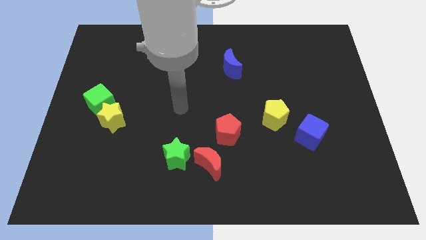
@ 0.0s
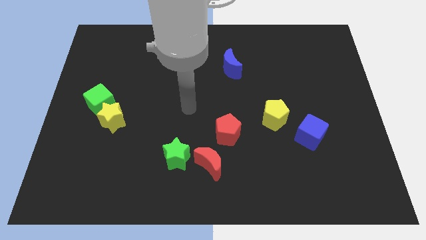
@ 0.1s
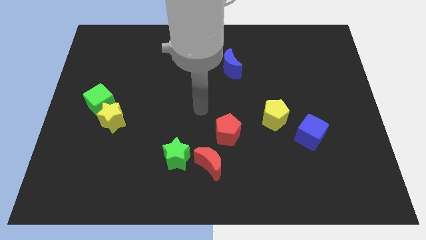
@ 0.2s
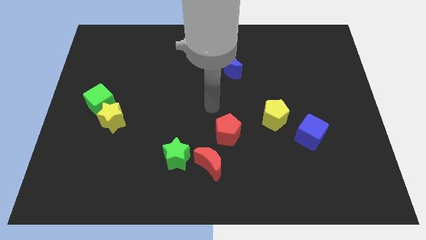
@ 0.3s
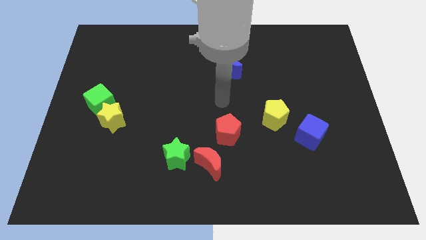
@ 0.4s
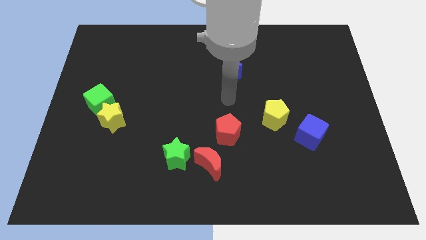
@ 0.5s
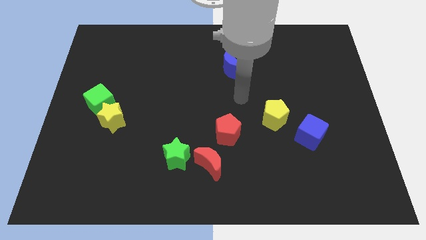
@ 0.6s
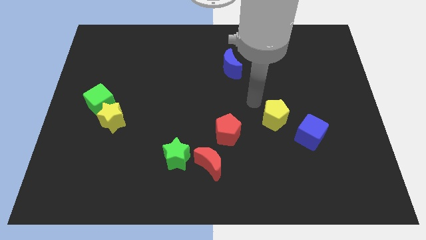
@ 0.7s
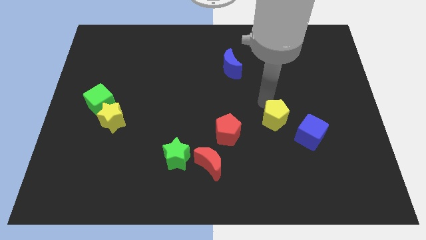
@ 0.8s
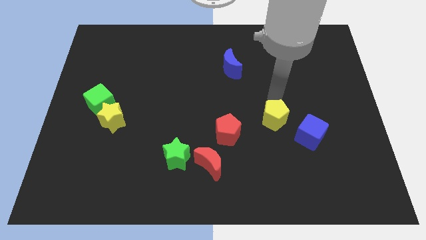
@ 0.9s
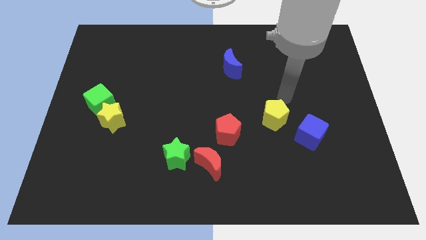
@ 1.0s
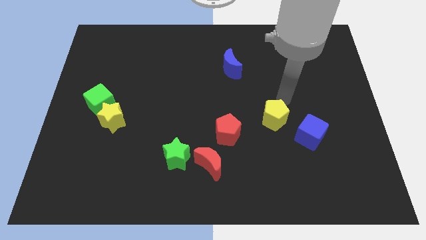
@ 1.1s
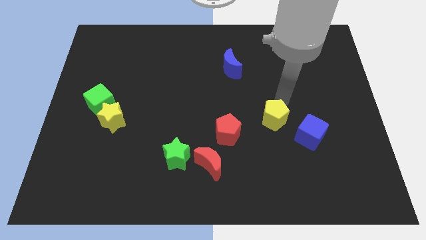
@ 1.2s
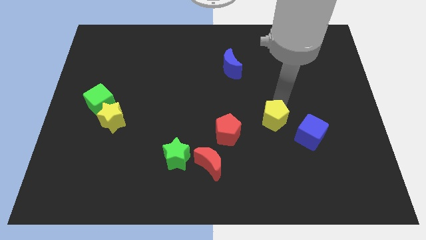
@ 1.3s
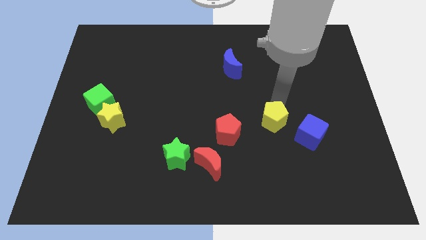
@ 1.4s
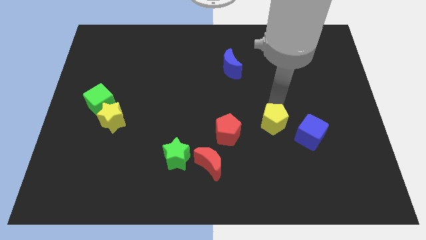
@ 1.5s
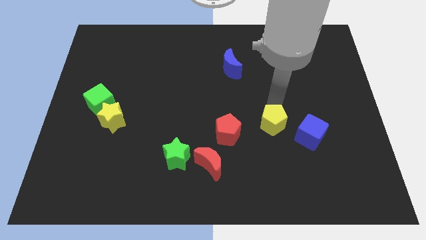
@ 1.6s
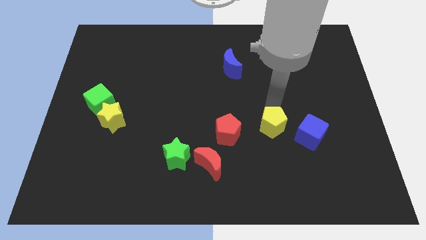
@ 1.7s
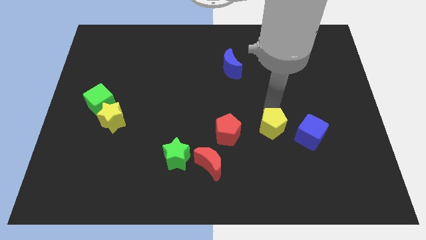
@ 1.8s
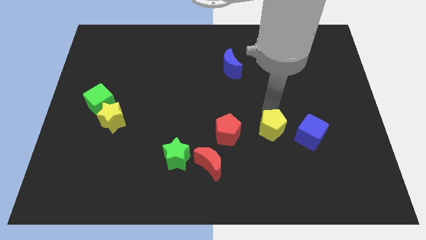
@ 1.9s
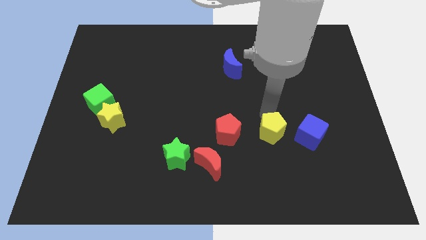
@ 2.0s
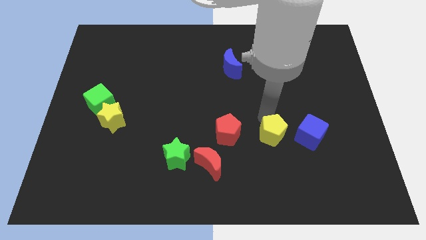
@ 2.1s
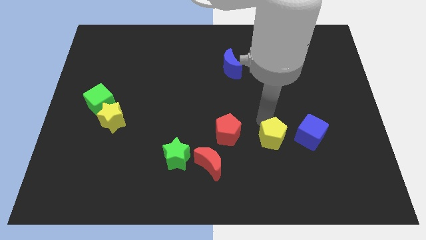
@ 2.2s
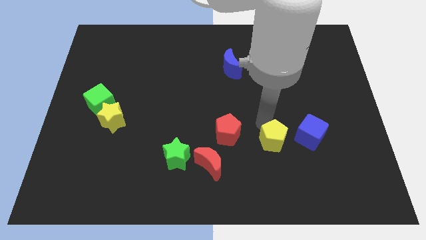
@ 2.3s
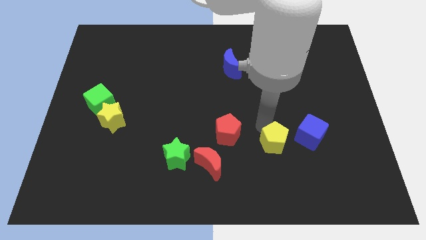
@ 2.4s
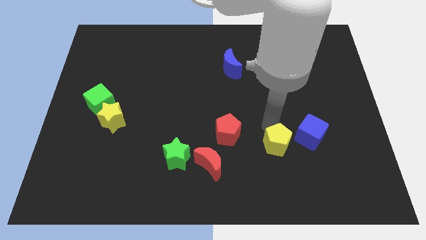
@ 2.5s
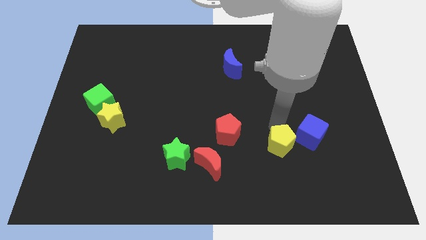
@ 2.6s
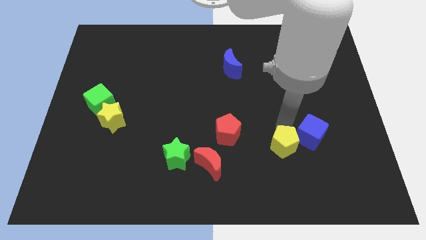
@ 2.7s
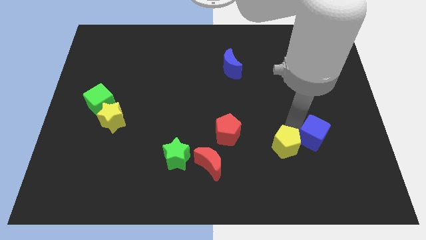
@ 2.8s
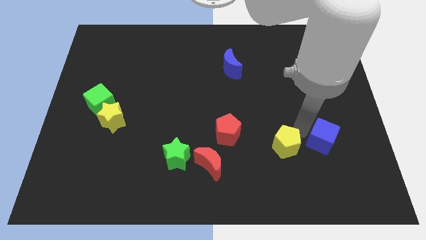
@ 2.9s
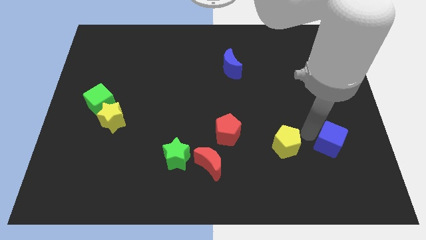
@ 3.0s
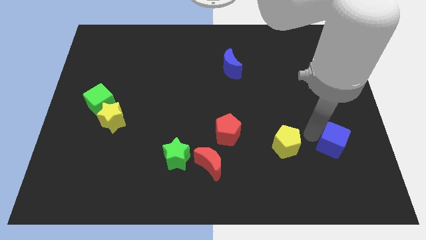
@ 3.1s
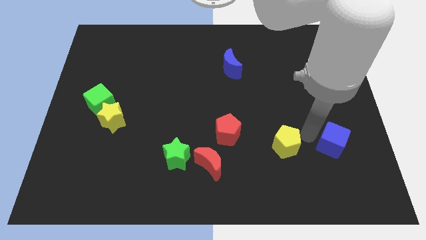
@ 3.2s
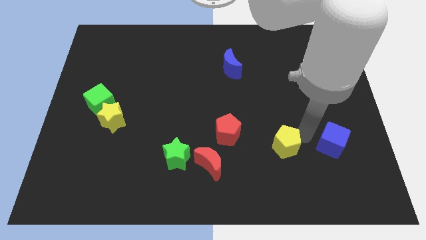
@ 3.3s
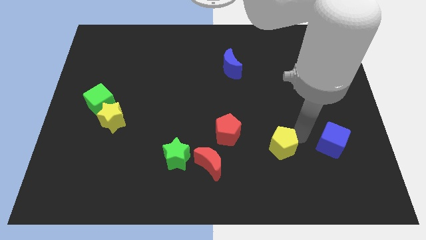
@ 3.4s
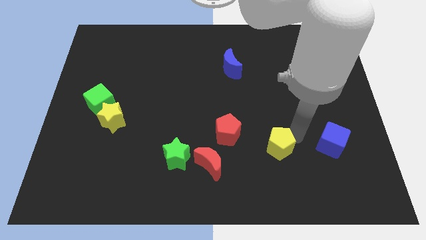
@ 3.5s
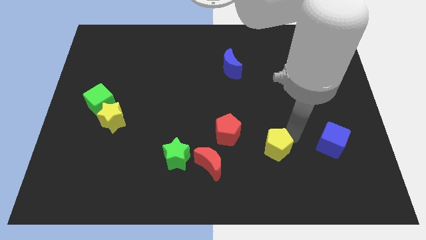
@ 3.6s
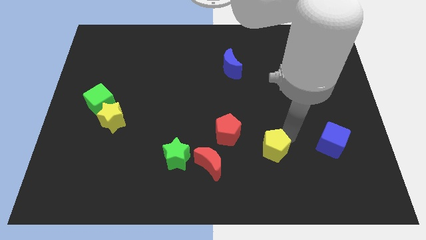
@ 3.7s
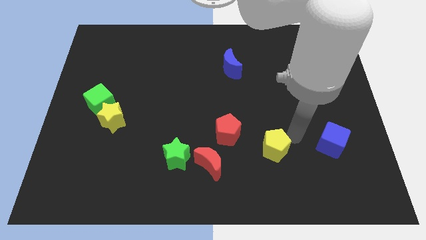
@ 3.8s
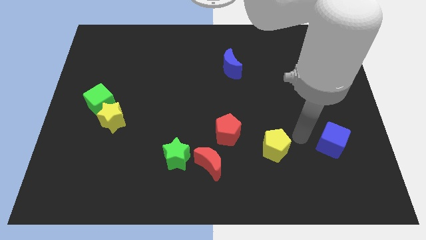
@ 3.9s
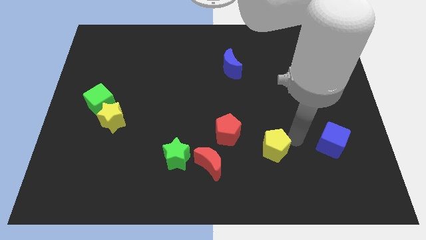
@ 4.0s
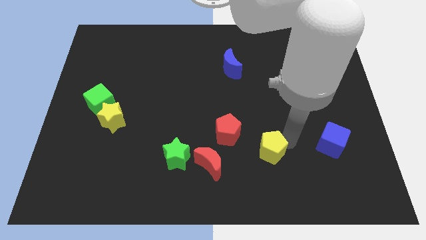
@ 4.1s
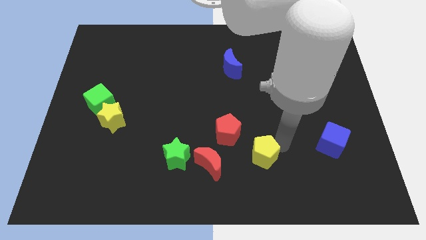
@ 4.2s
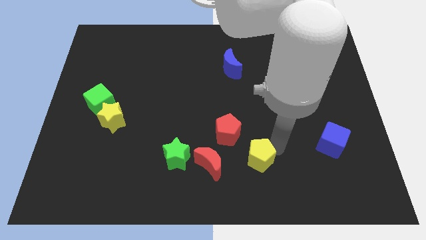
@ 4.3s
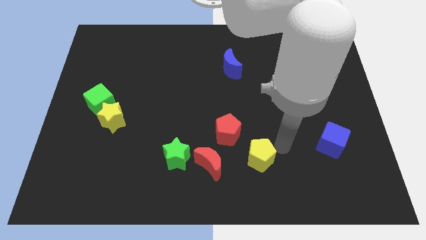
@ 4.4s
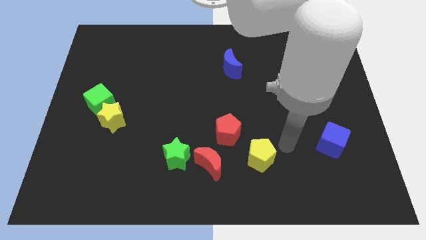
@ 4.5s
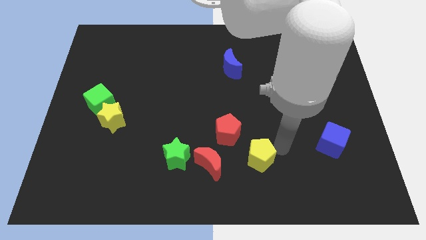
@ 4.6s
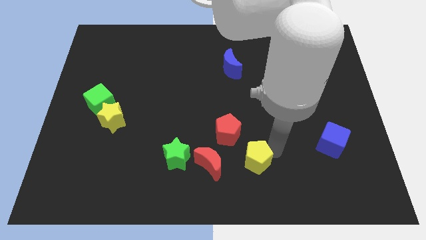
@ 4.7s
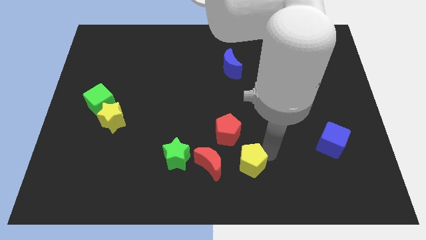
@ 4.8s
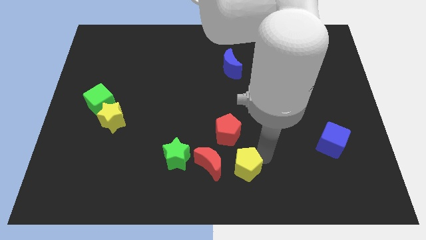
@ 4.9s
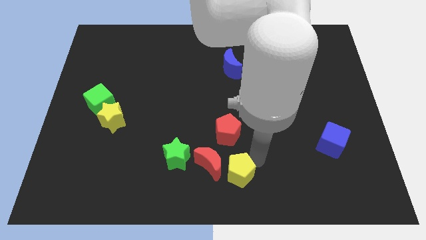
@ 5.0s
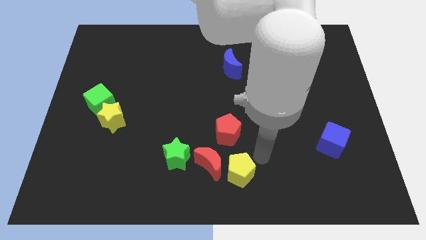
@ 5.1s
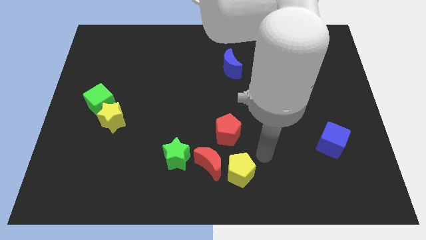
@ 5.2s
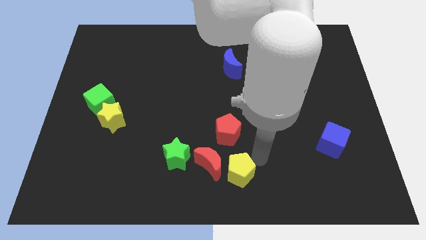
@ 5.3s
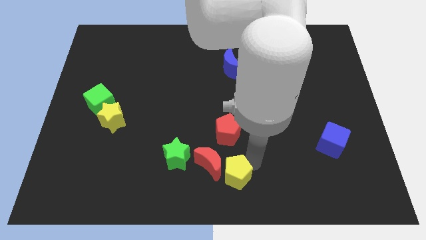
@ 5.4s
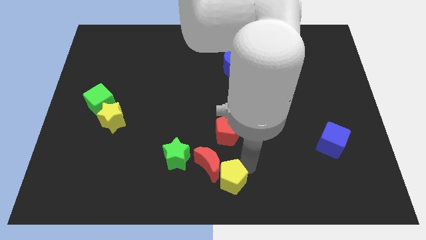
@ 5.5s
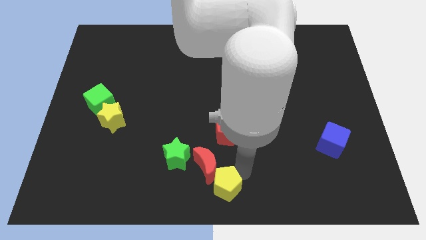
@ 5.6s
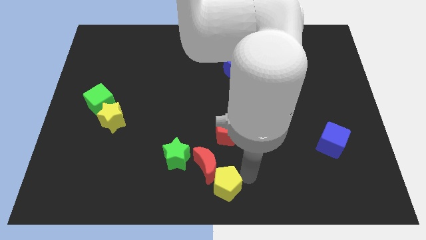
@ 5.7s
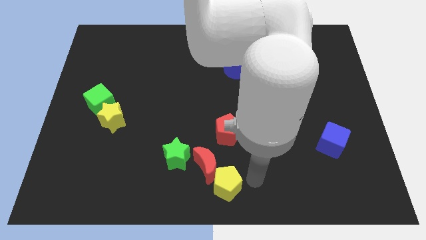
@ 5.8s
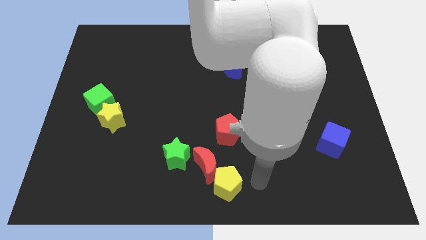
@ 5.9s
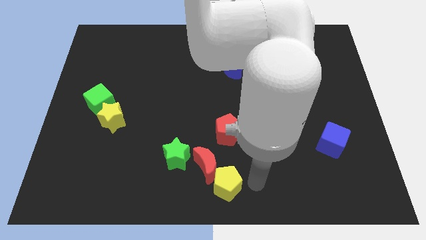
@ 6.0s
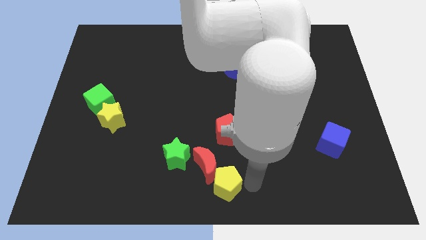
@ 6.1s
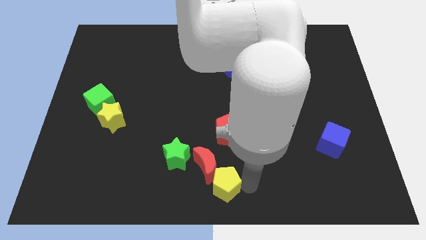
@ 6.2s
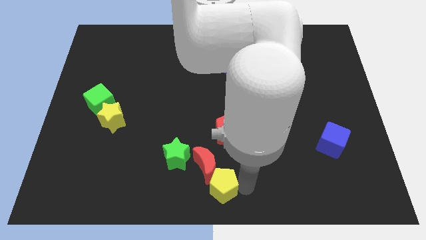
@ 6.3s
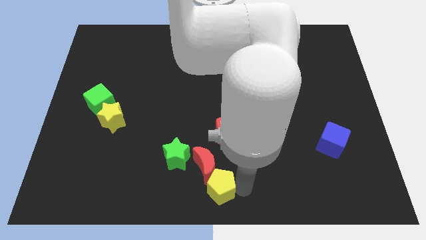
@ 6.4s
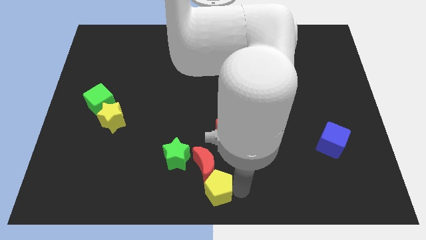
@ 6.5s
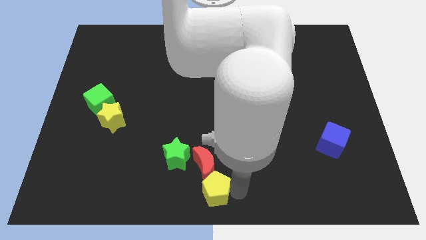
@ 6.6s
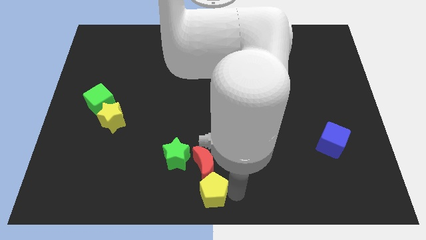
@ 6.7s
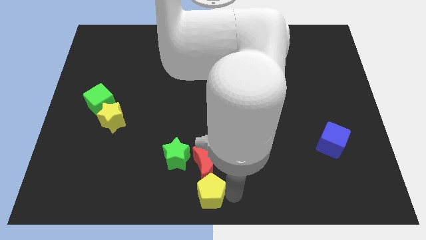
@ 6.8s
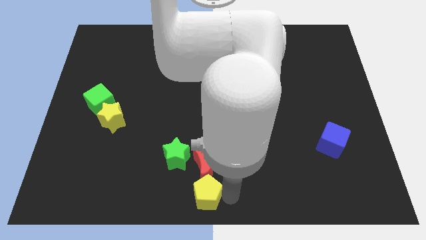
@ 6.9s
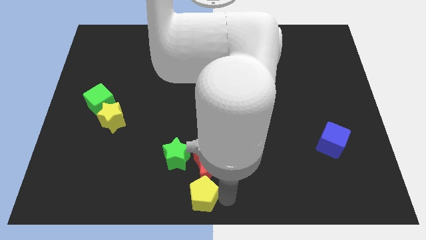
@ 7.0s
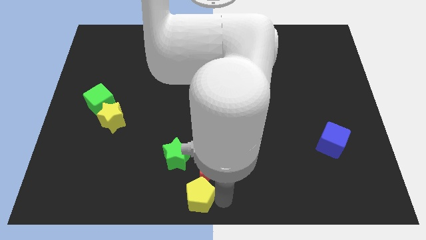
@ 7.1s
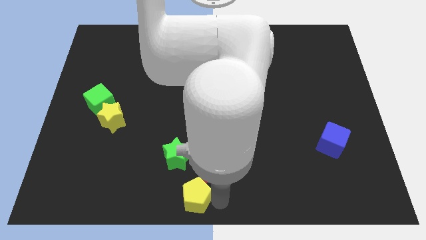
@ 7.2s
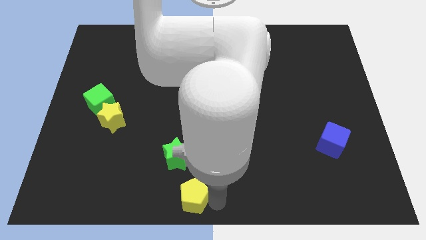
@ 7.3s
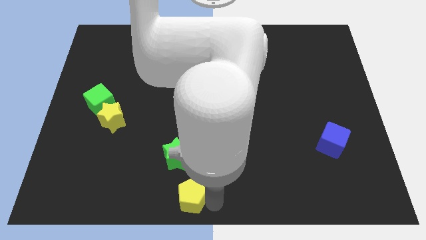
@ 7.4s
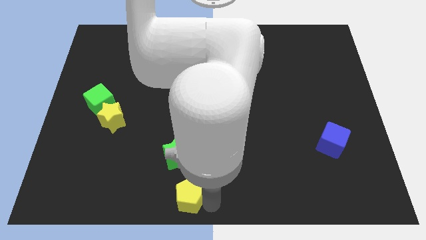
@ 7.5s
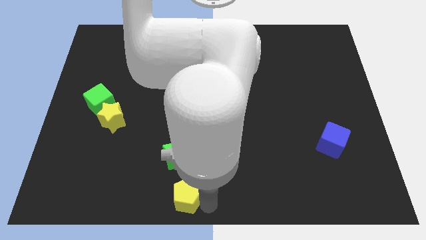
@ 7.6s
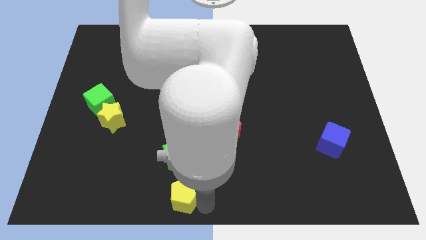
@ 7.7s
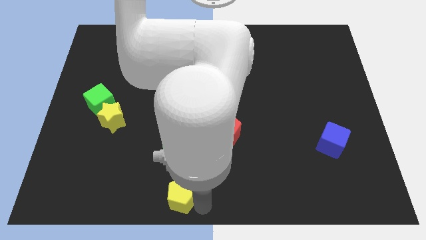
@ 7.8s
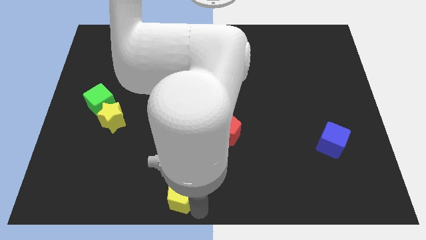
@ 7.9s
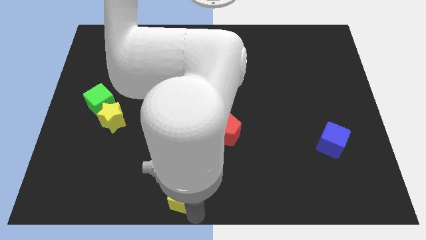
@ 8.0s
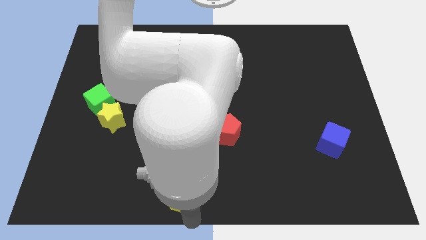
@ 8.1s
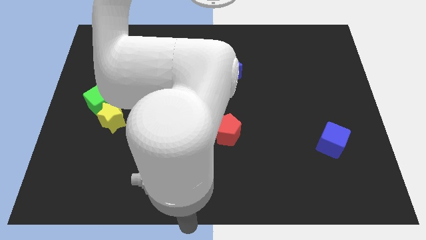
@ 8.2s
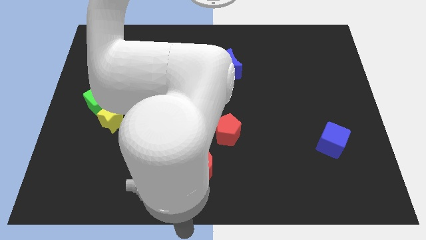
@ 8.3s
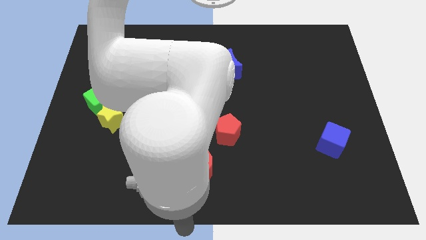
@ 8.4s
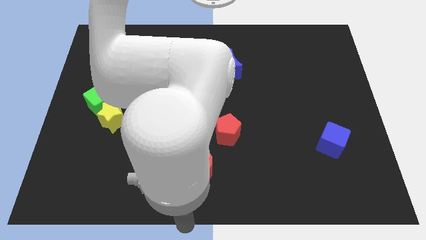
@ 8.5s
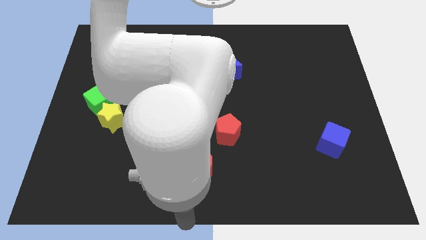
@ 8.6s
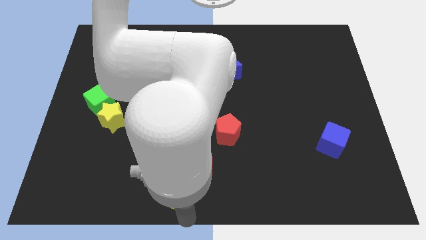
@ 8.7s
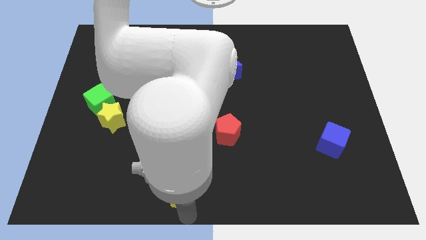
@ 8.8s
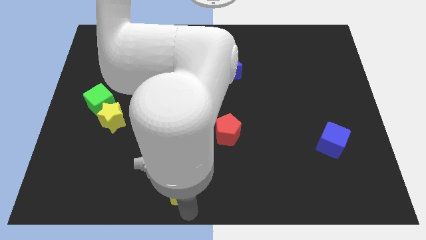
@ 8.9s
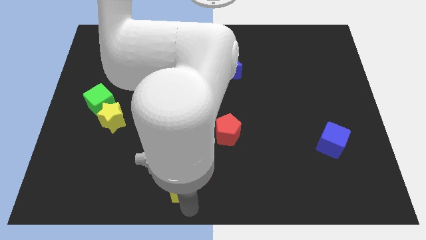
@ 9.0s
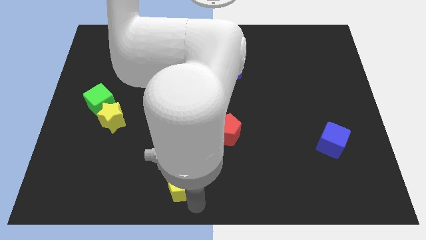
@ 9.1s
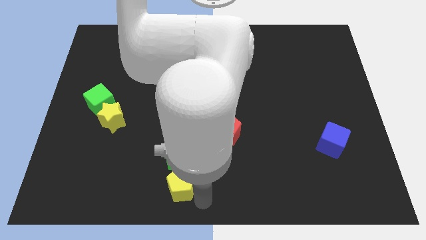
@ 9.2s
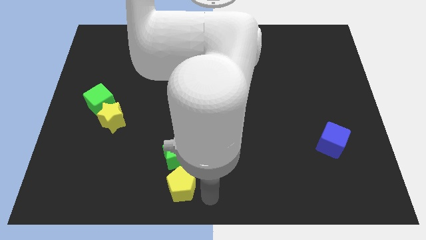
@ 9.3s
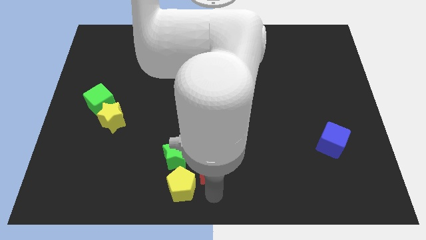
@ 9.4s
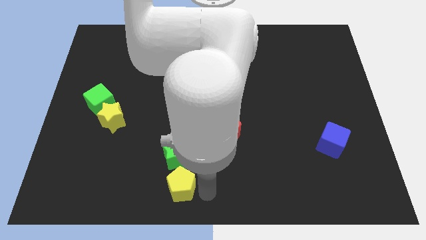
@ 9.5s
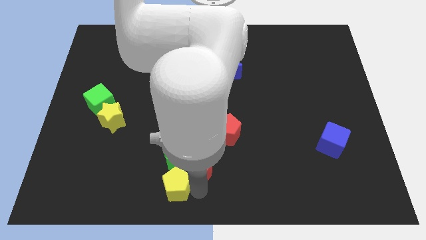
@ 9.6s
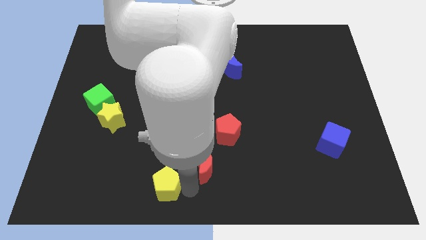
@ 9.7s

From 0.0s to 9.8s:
move the yellow pentagon to the bottom left of the green star
